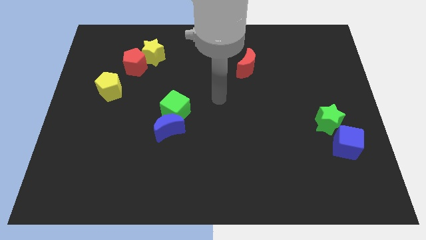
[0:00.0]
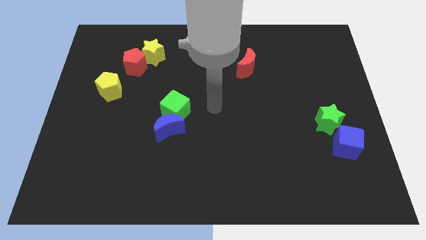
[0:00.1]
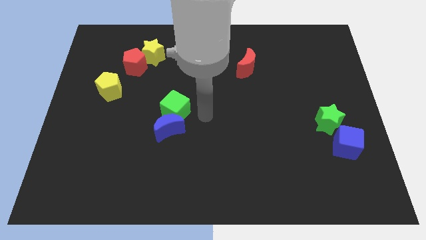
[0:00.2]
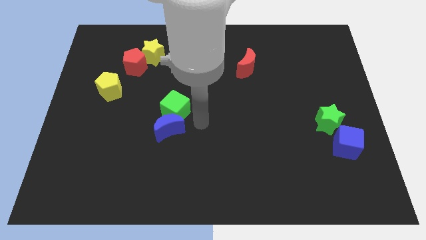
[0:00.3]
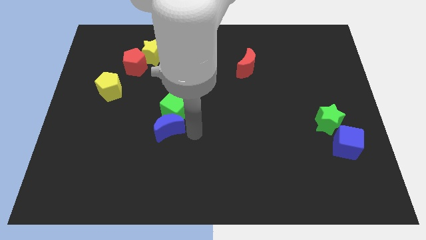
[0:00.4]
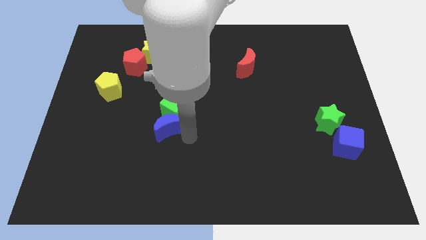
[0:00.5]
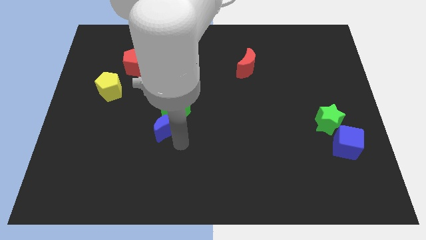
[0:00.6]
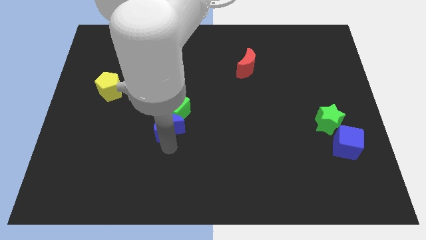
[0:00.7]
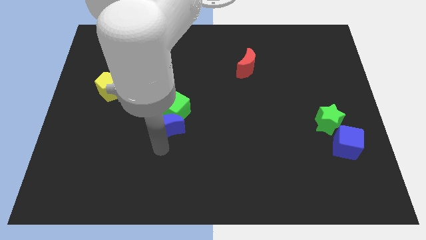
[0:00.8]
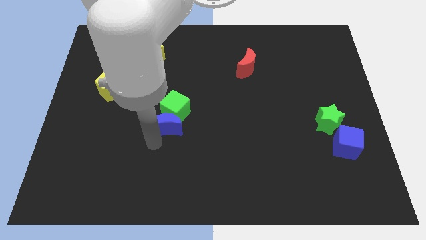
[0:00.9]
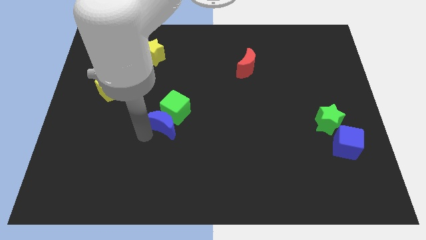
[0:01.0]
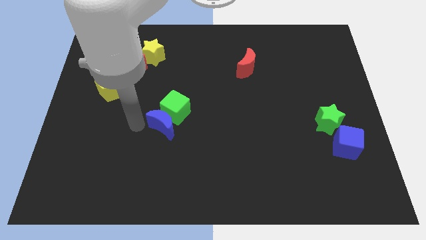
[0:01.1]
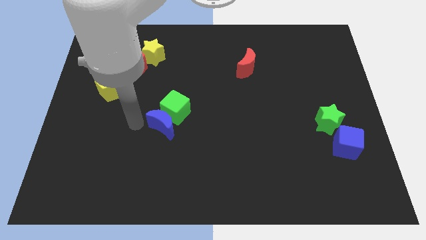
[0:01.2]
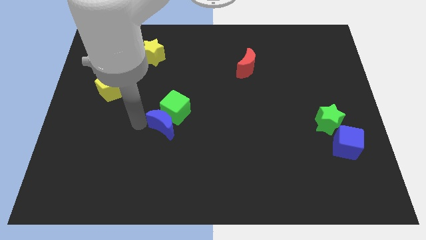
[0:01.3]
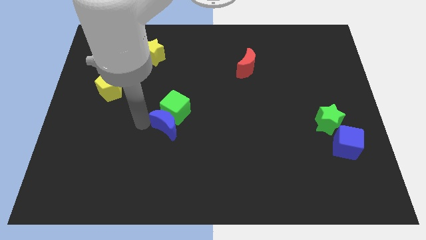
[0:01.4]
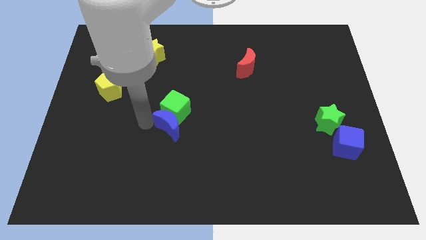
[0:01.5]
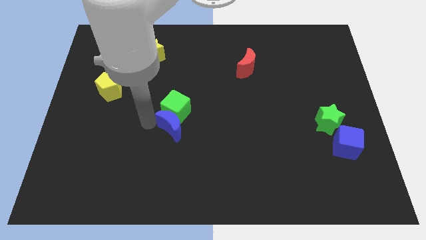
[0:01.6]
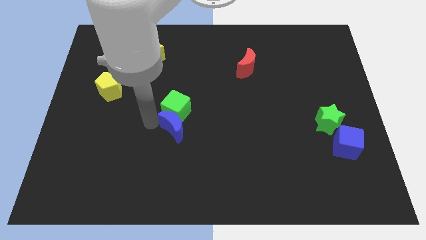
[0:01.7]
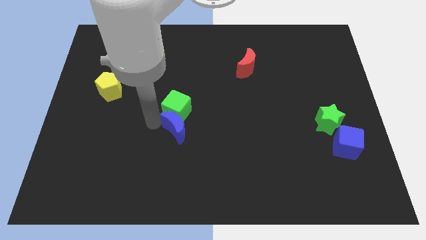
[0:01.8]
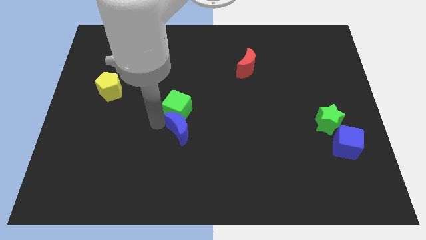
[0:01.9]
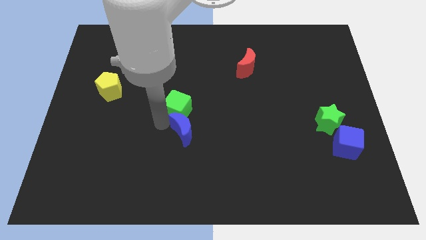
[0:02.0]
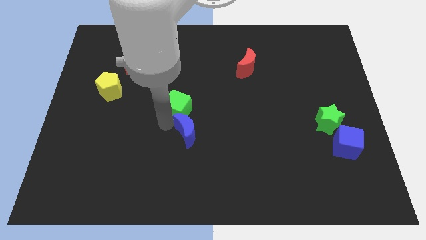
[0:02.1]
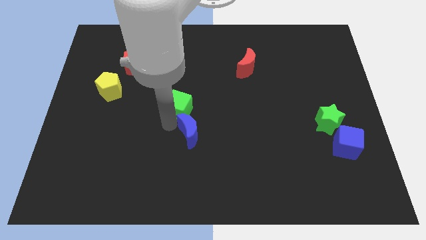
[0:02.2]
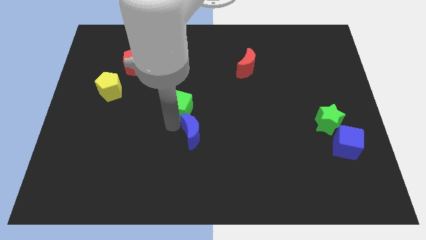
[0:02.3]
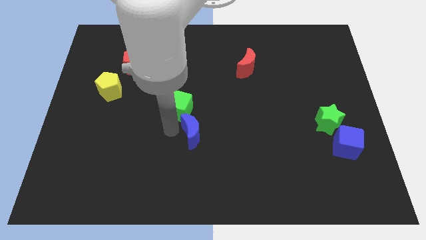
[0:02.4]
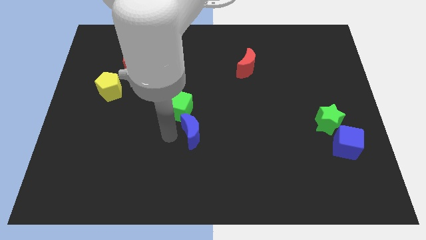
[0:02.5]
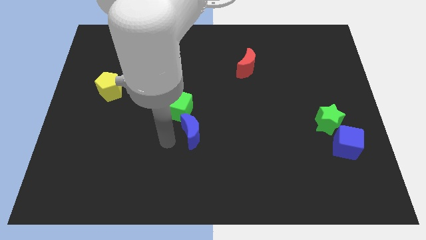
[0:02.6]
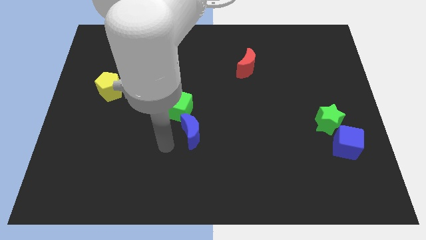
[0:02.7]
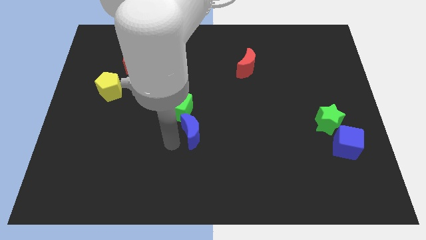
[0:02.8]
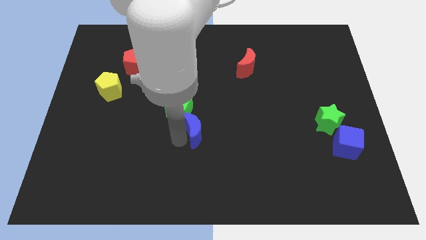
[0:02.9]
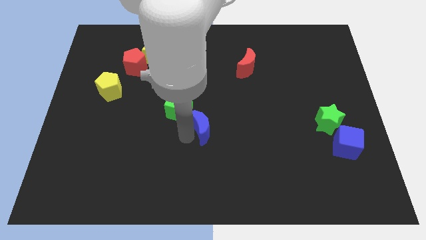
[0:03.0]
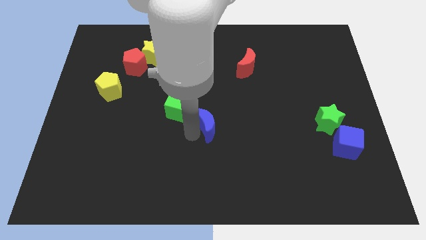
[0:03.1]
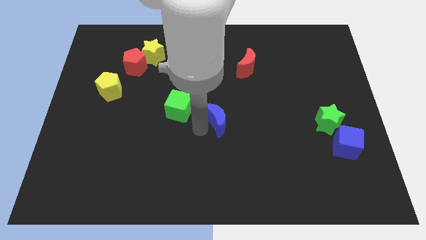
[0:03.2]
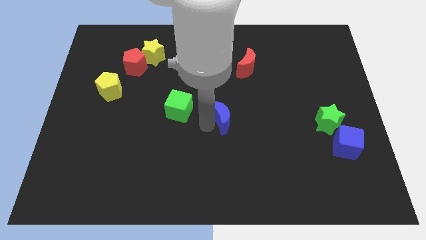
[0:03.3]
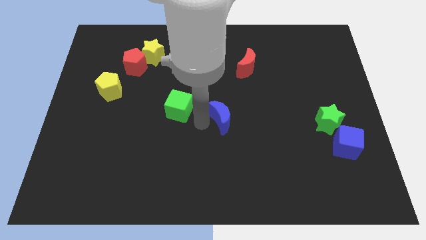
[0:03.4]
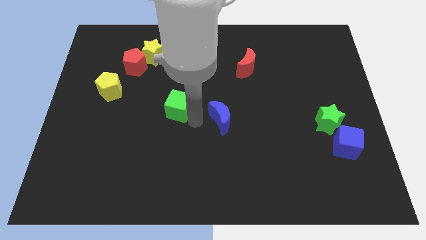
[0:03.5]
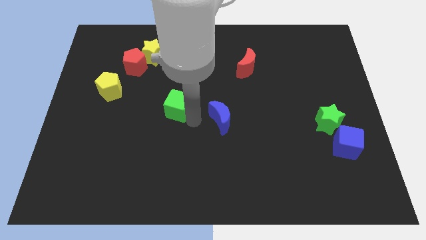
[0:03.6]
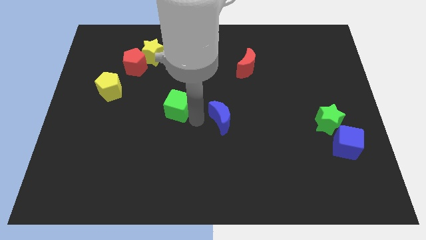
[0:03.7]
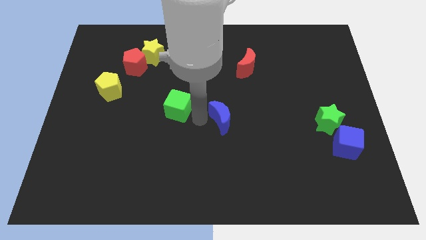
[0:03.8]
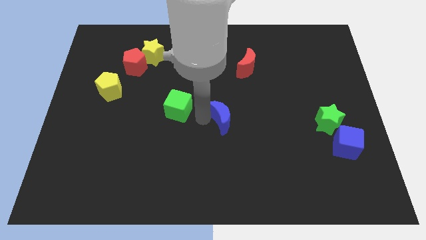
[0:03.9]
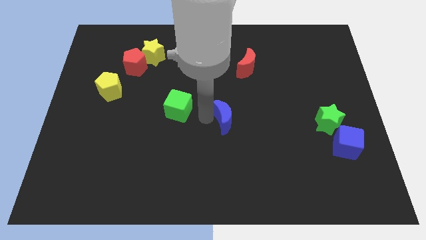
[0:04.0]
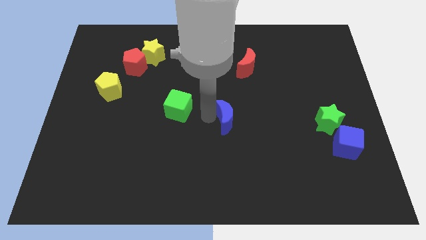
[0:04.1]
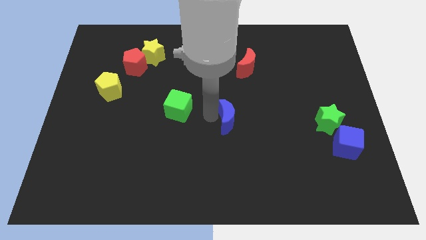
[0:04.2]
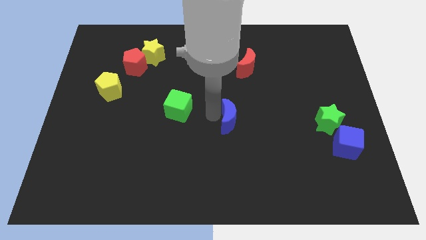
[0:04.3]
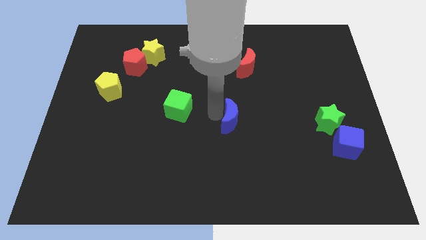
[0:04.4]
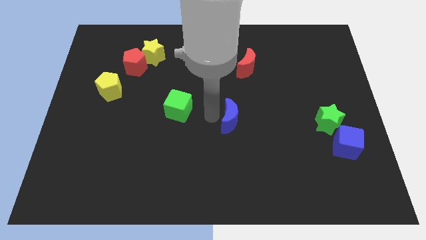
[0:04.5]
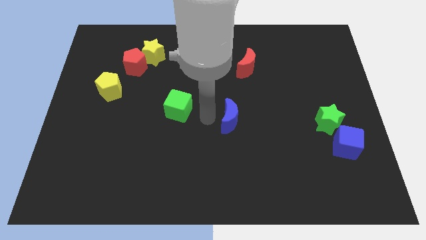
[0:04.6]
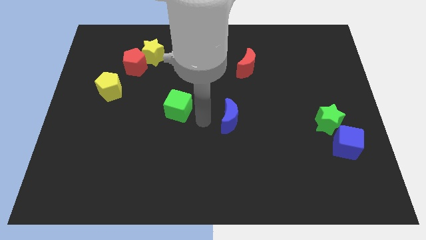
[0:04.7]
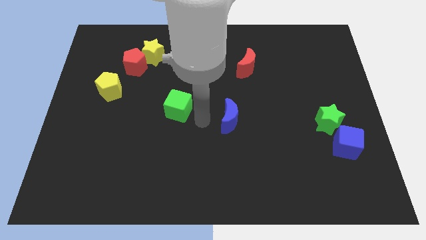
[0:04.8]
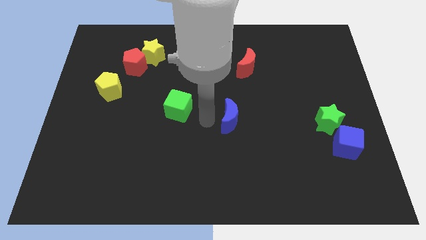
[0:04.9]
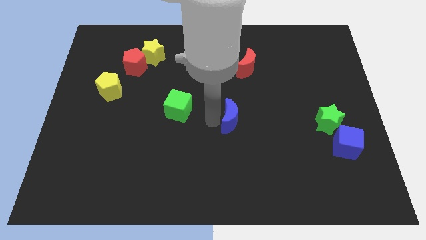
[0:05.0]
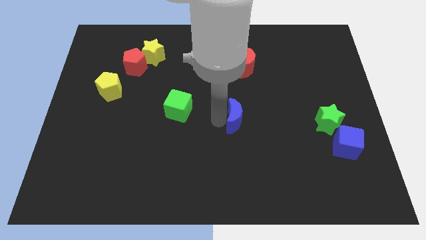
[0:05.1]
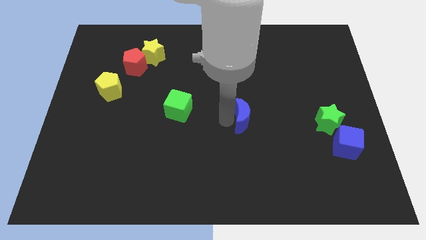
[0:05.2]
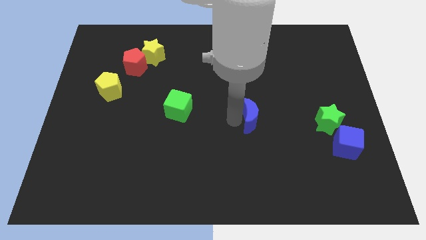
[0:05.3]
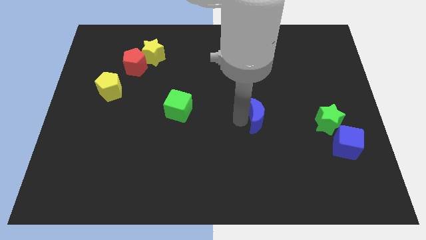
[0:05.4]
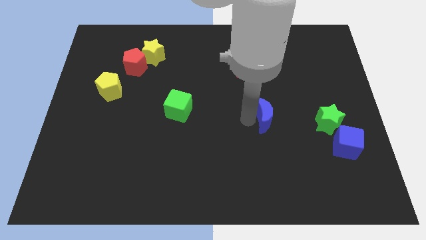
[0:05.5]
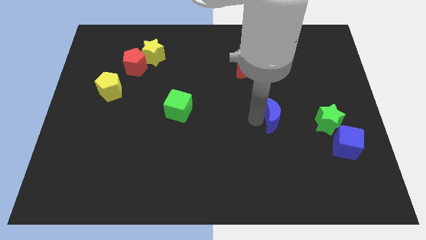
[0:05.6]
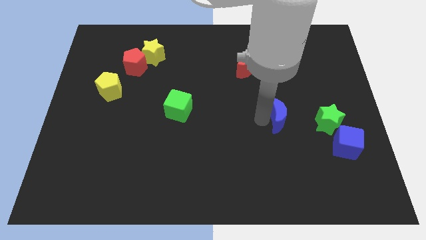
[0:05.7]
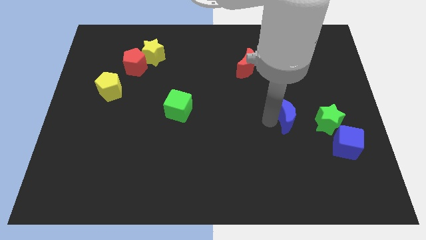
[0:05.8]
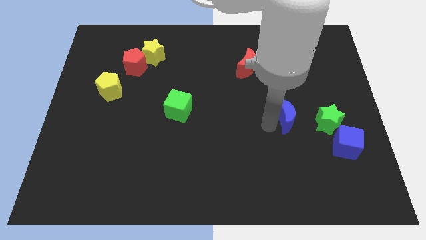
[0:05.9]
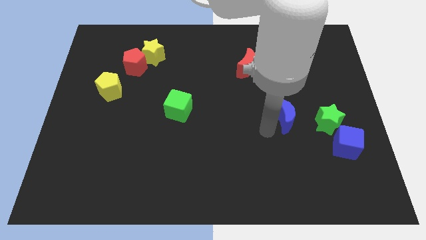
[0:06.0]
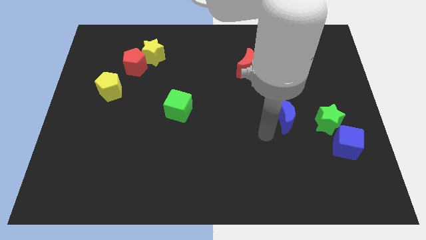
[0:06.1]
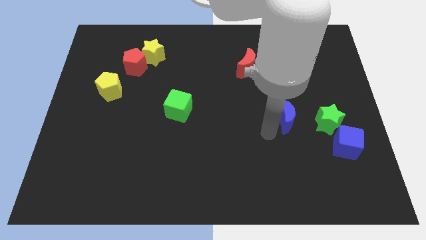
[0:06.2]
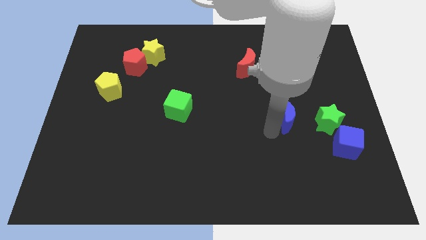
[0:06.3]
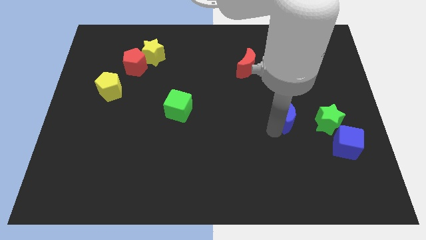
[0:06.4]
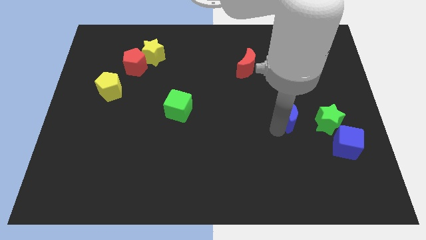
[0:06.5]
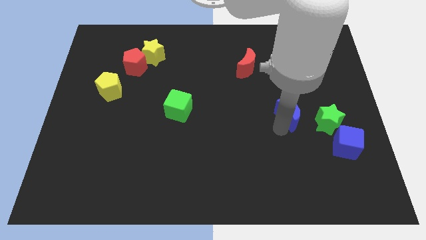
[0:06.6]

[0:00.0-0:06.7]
put the blue moon to the top left of the green star

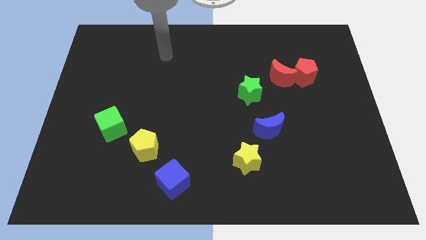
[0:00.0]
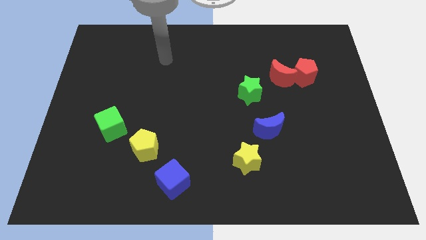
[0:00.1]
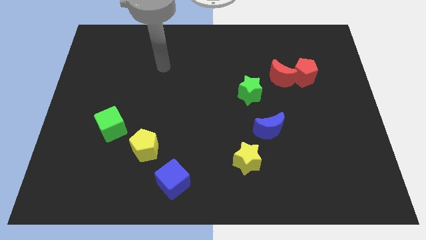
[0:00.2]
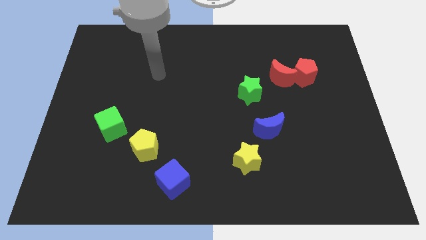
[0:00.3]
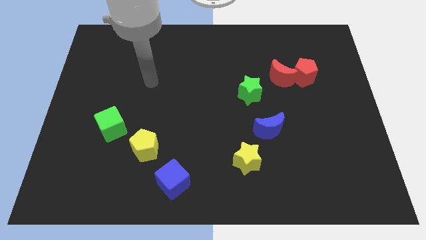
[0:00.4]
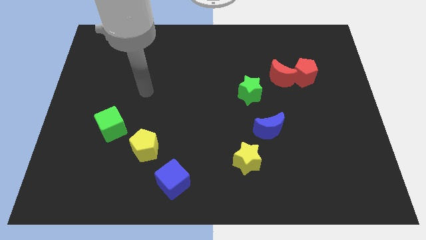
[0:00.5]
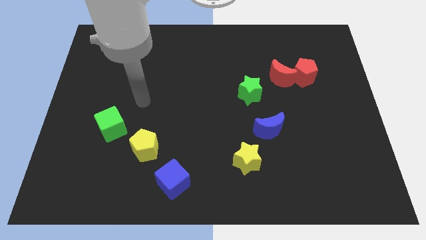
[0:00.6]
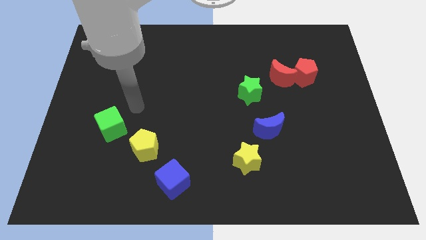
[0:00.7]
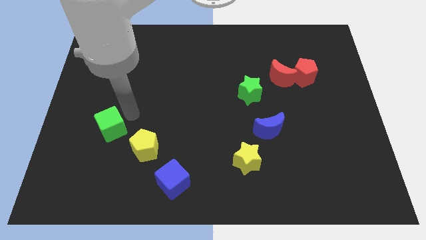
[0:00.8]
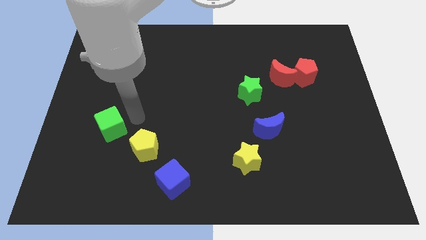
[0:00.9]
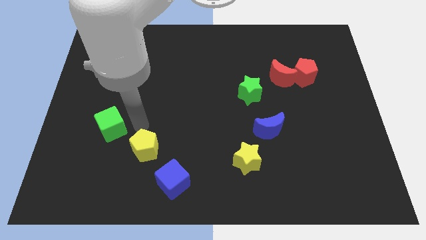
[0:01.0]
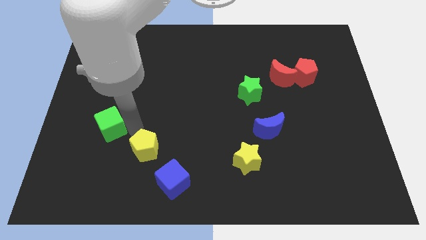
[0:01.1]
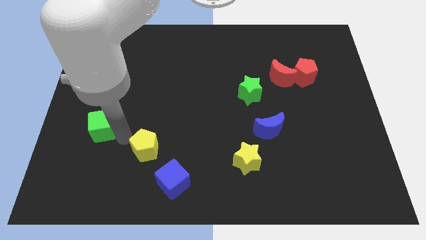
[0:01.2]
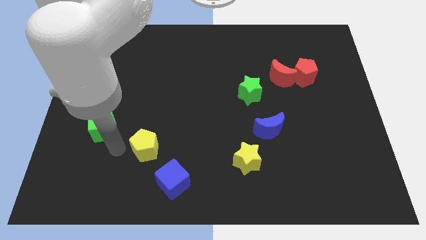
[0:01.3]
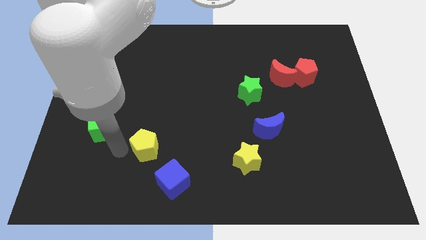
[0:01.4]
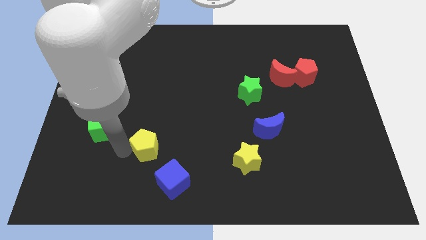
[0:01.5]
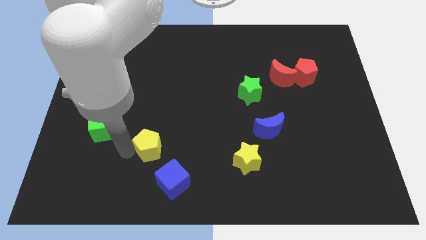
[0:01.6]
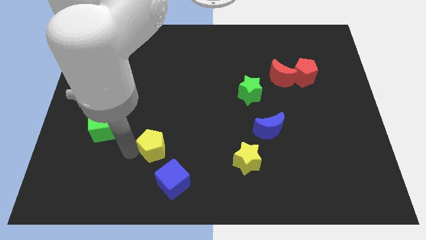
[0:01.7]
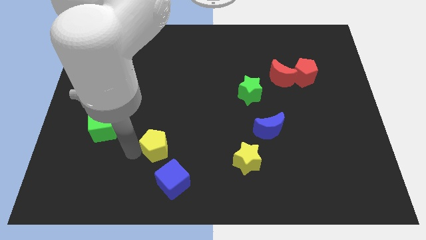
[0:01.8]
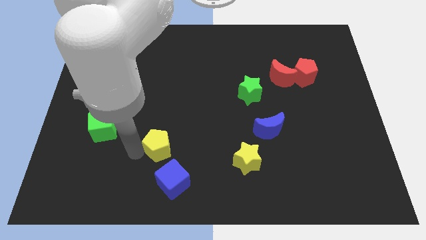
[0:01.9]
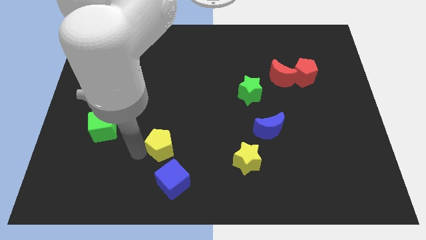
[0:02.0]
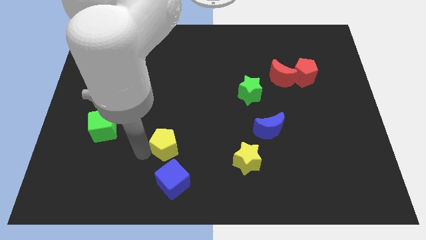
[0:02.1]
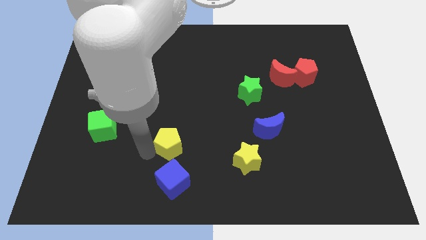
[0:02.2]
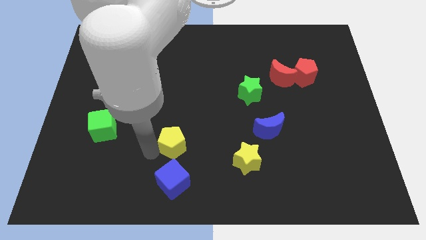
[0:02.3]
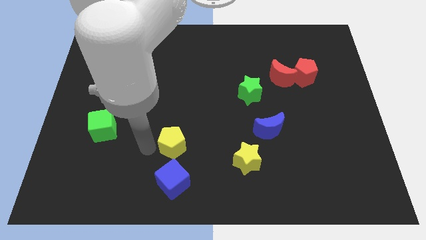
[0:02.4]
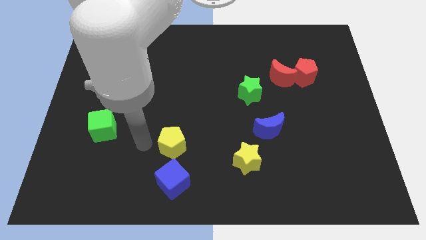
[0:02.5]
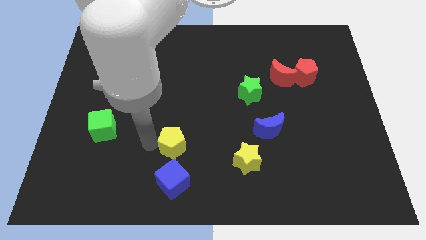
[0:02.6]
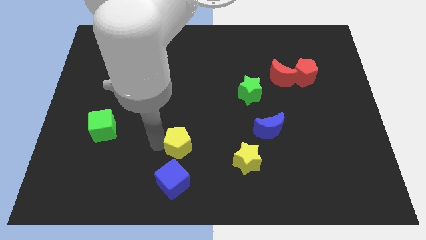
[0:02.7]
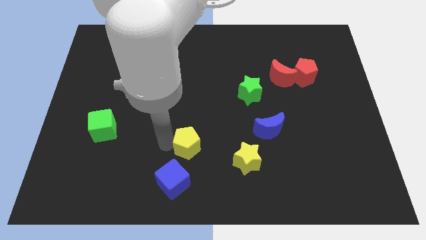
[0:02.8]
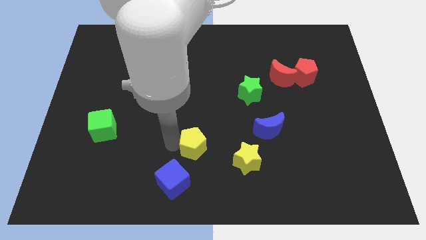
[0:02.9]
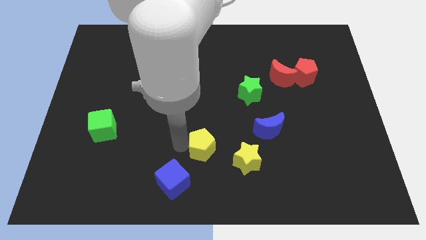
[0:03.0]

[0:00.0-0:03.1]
push the yellow pentagon to the top left side of the yellow star
